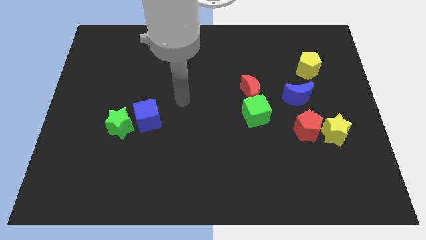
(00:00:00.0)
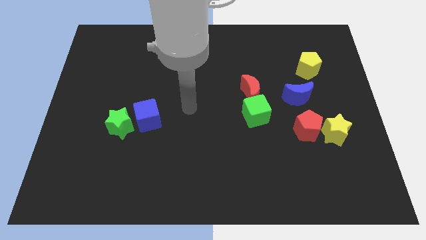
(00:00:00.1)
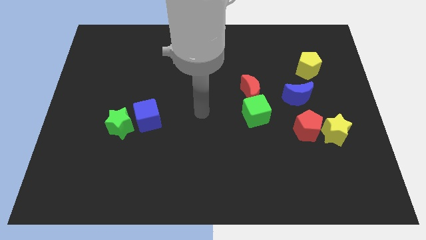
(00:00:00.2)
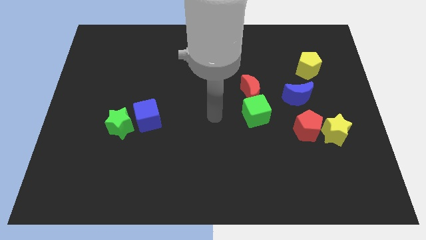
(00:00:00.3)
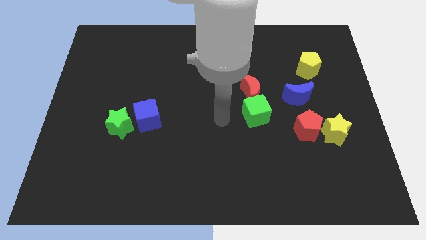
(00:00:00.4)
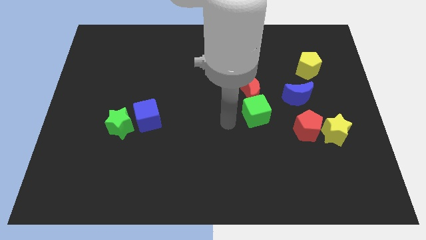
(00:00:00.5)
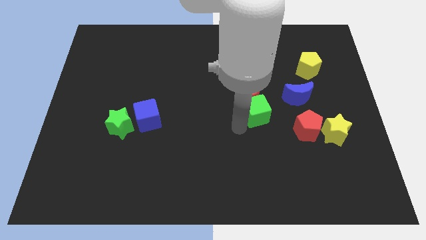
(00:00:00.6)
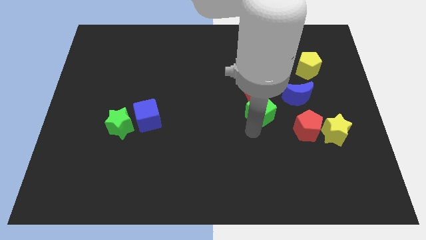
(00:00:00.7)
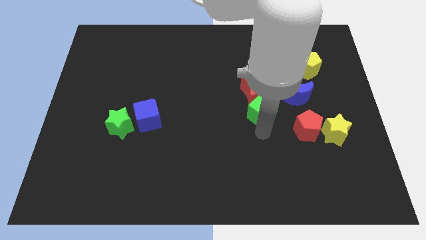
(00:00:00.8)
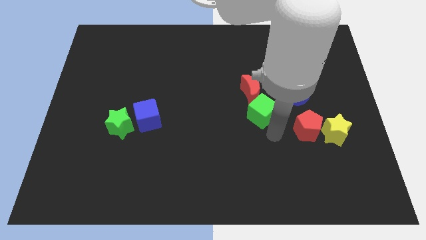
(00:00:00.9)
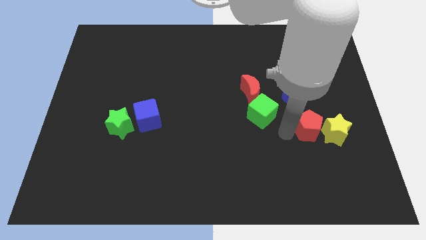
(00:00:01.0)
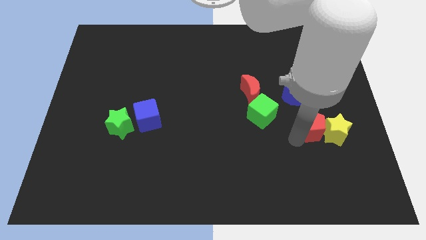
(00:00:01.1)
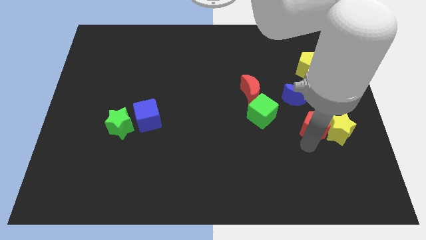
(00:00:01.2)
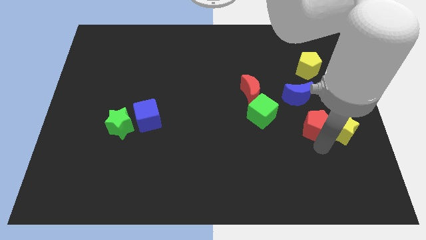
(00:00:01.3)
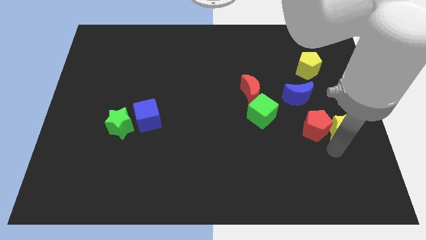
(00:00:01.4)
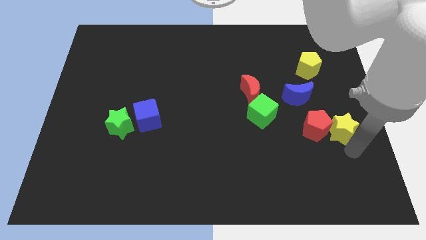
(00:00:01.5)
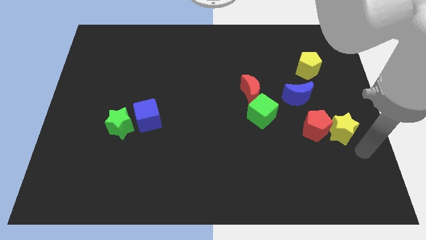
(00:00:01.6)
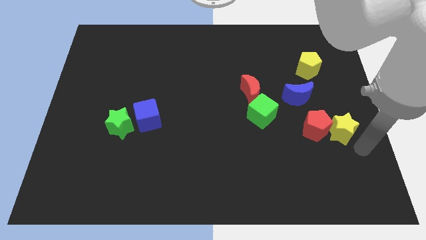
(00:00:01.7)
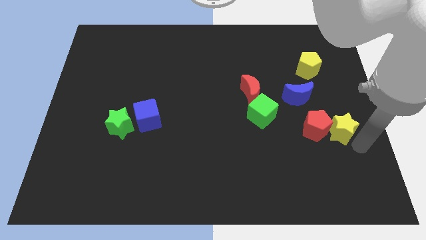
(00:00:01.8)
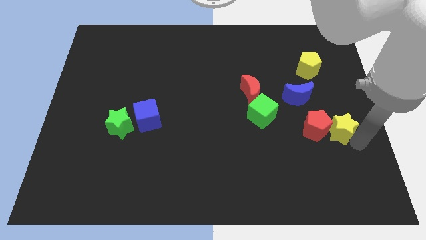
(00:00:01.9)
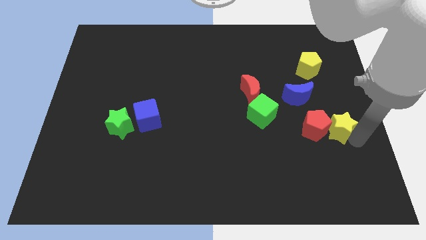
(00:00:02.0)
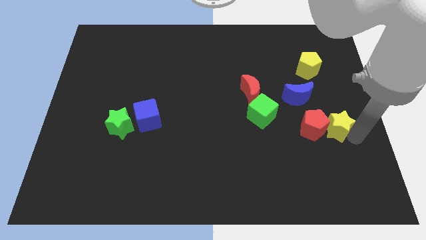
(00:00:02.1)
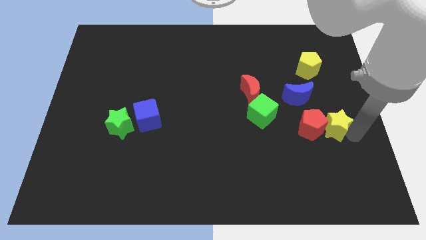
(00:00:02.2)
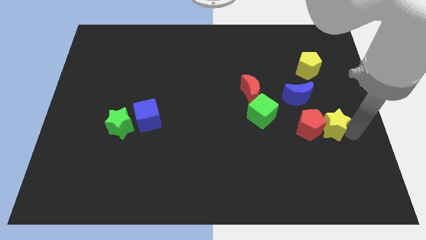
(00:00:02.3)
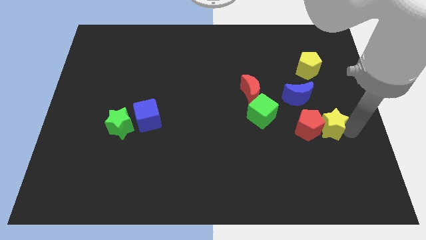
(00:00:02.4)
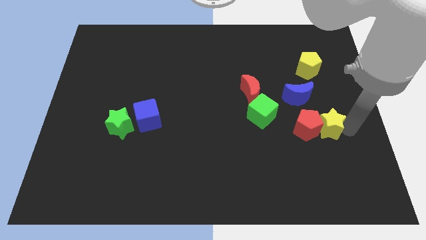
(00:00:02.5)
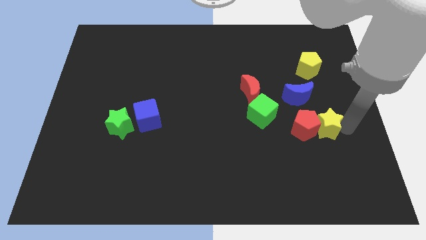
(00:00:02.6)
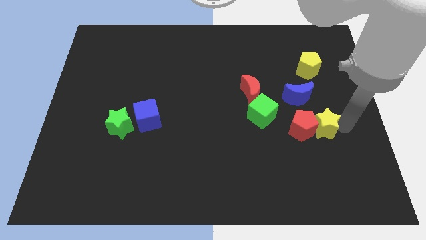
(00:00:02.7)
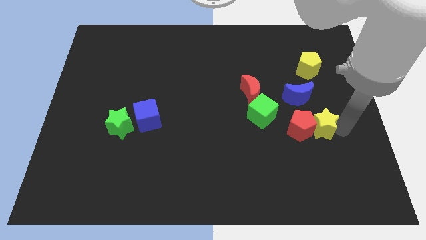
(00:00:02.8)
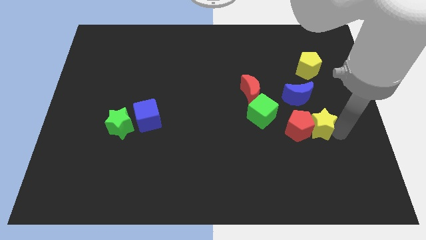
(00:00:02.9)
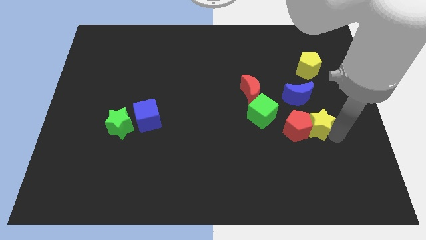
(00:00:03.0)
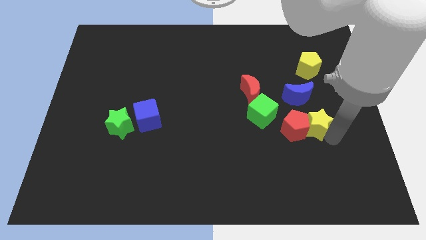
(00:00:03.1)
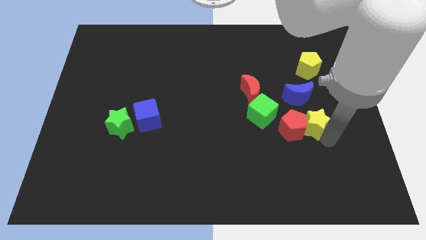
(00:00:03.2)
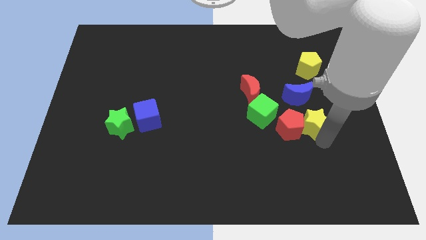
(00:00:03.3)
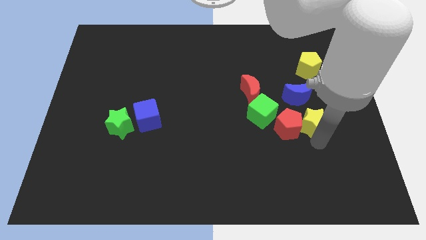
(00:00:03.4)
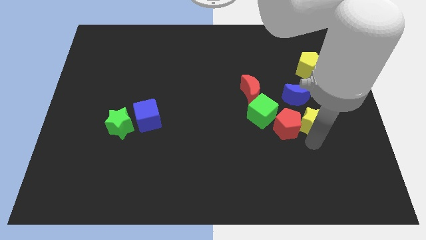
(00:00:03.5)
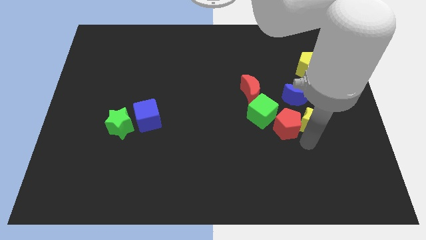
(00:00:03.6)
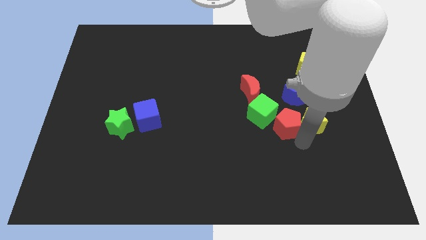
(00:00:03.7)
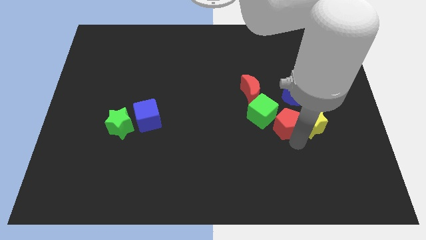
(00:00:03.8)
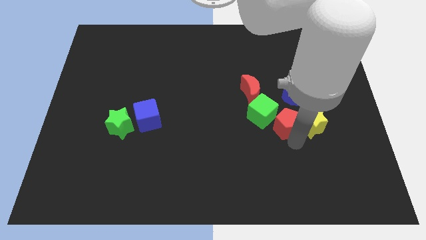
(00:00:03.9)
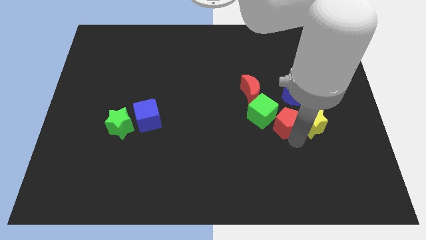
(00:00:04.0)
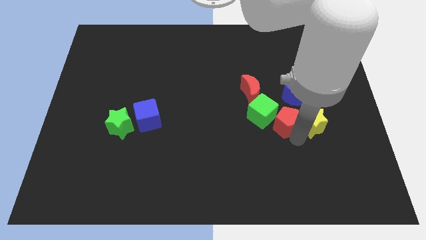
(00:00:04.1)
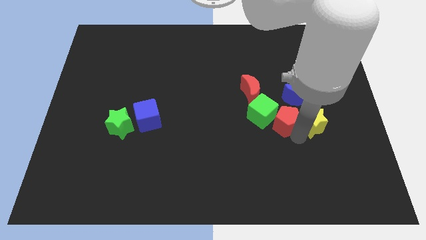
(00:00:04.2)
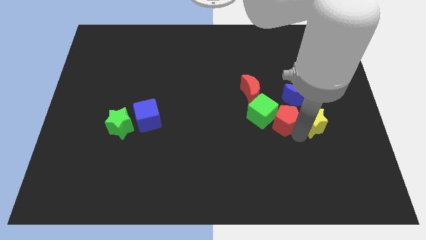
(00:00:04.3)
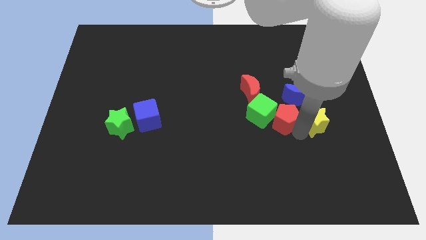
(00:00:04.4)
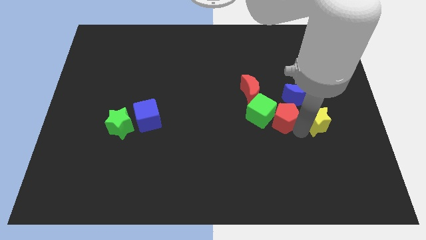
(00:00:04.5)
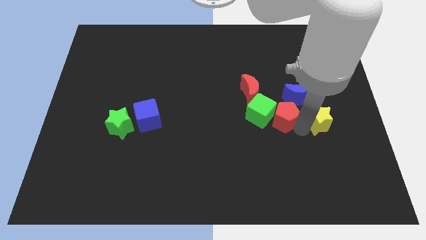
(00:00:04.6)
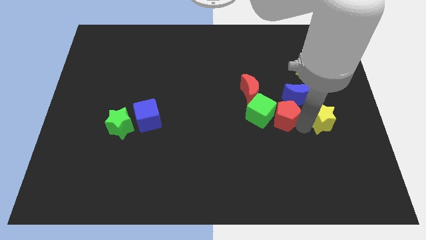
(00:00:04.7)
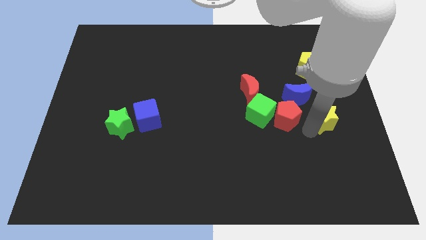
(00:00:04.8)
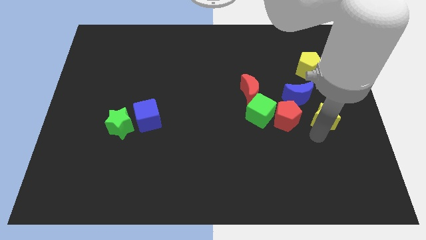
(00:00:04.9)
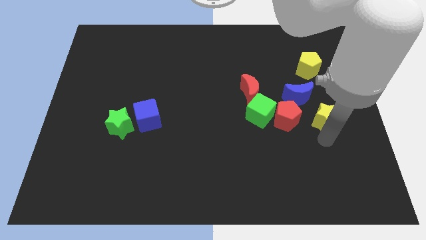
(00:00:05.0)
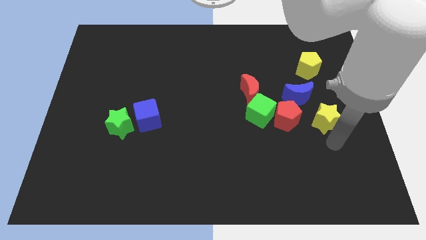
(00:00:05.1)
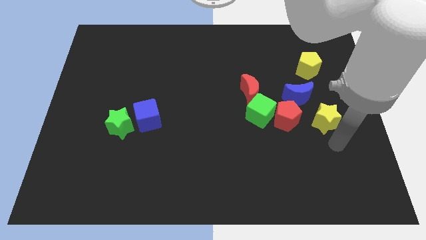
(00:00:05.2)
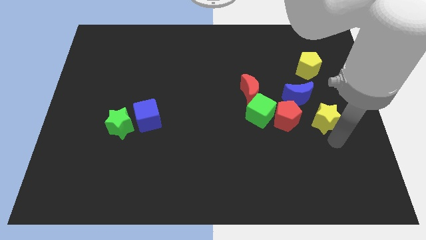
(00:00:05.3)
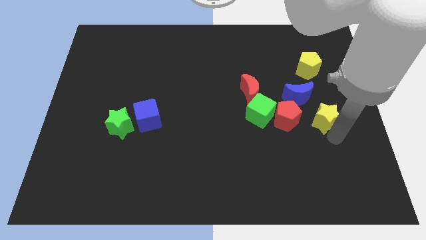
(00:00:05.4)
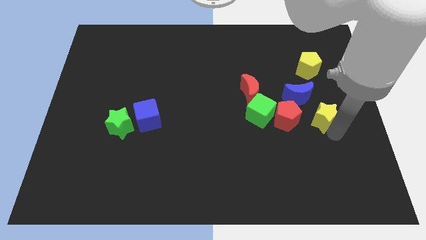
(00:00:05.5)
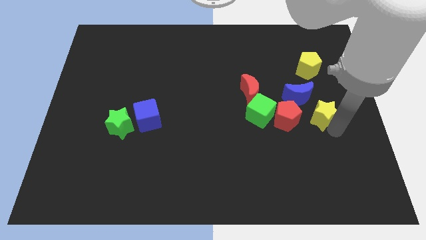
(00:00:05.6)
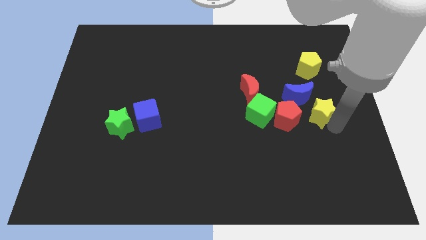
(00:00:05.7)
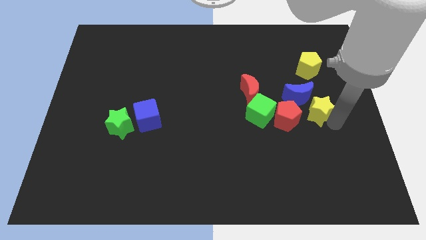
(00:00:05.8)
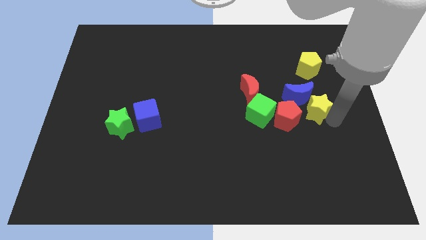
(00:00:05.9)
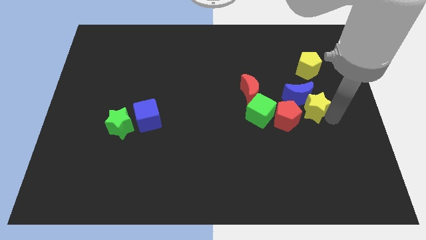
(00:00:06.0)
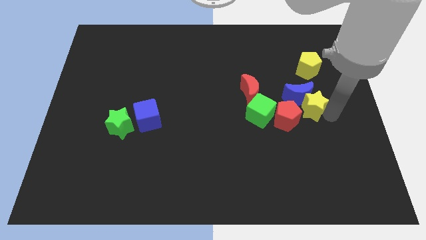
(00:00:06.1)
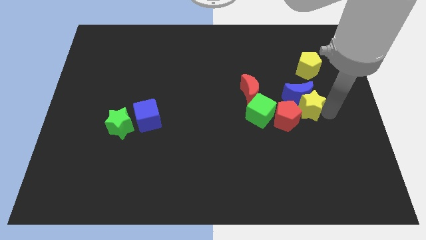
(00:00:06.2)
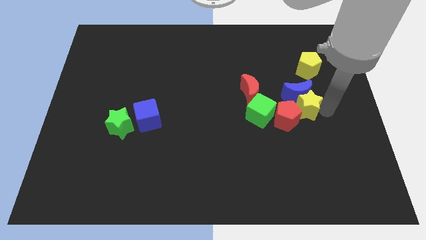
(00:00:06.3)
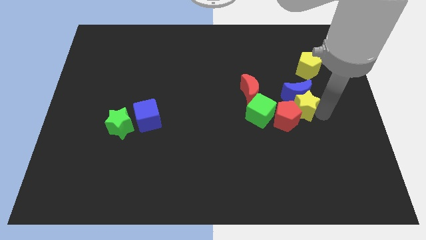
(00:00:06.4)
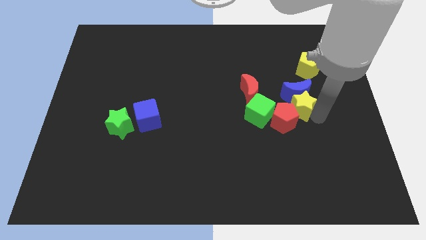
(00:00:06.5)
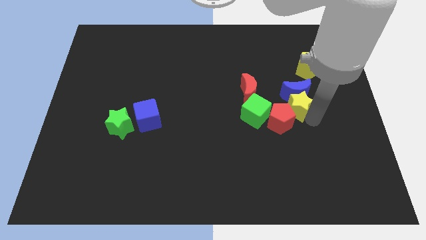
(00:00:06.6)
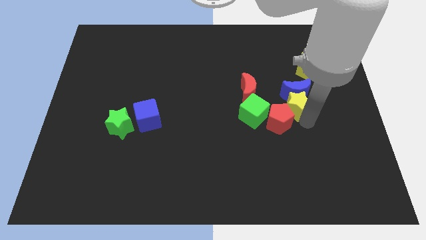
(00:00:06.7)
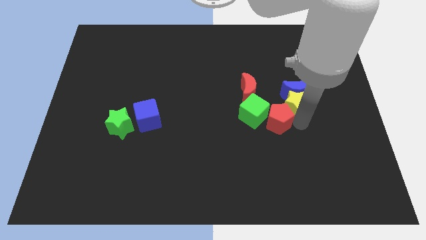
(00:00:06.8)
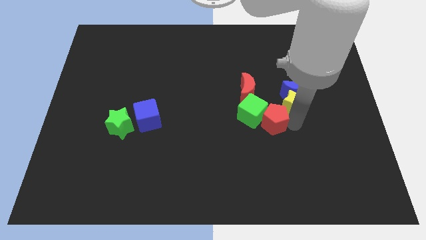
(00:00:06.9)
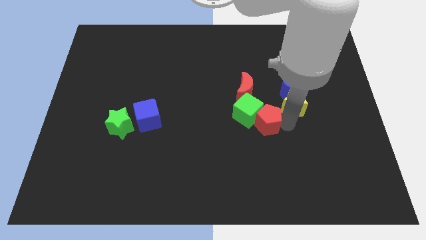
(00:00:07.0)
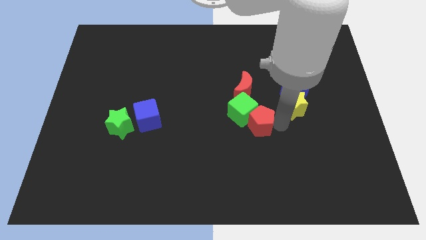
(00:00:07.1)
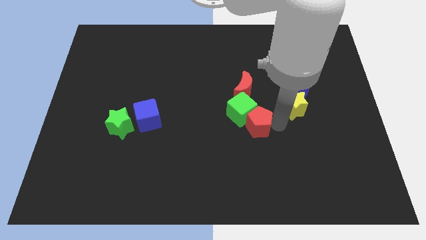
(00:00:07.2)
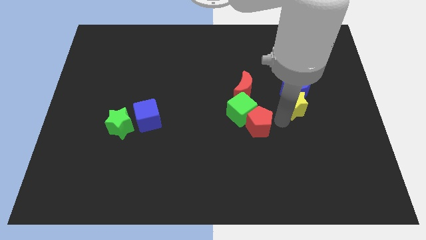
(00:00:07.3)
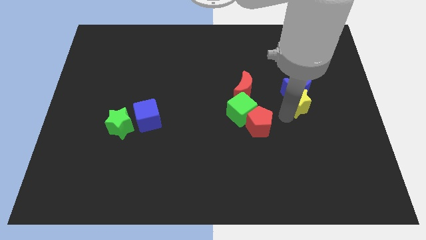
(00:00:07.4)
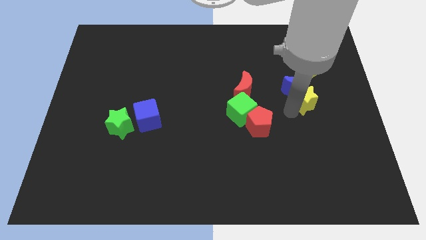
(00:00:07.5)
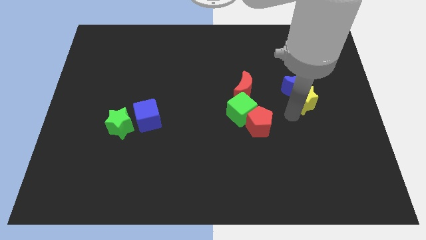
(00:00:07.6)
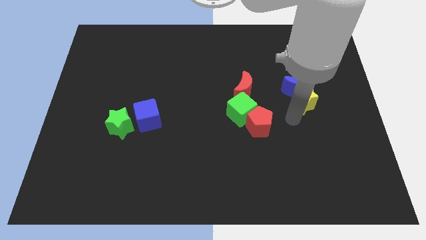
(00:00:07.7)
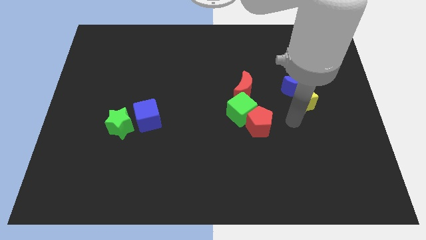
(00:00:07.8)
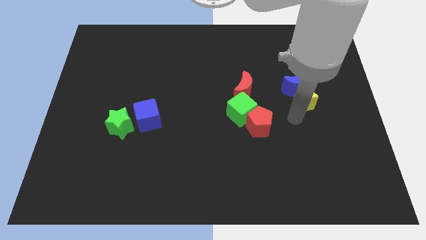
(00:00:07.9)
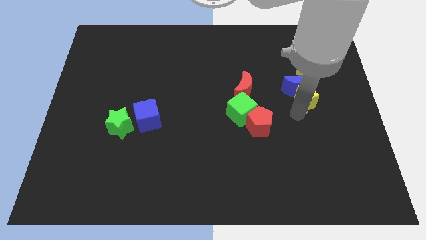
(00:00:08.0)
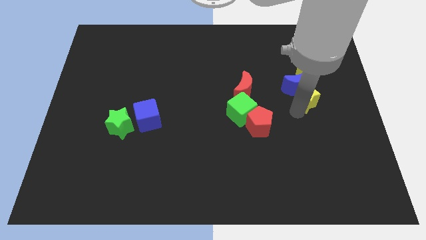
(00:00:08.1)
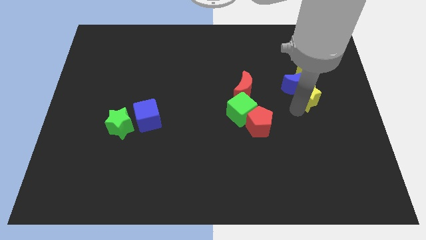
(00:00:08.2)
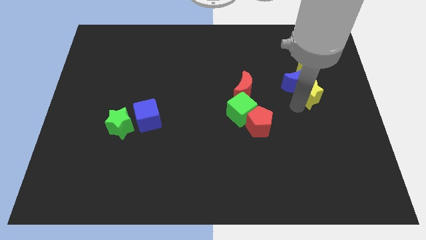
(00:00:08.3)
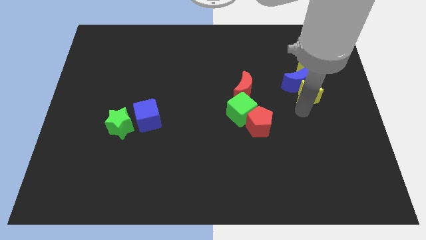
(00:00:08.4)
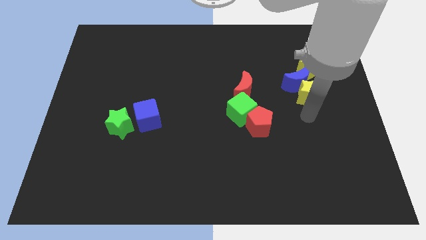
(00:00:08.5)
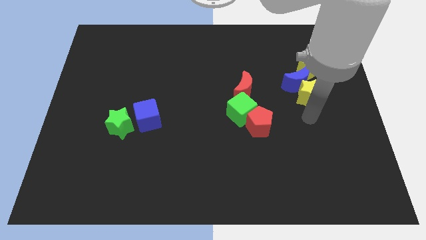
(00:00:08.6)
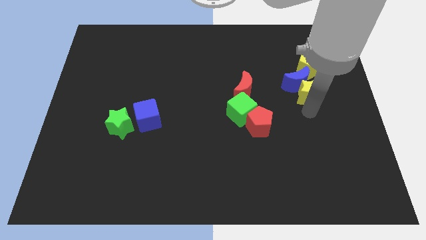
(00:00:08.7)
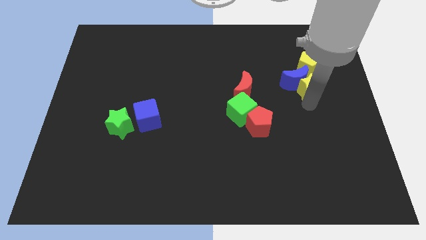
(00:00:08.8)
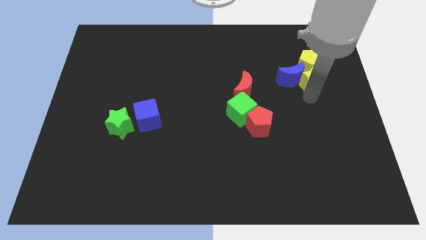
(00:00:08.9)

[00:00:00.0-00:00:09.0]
push the yellow star close to the yellow pentagon
